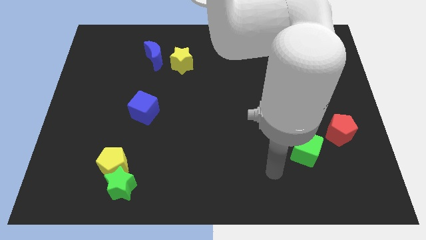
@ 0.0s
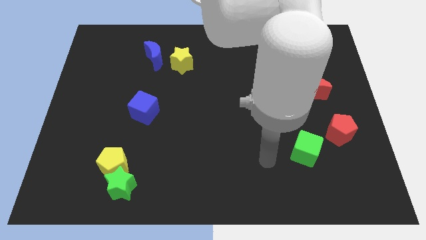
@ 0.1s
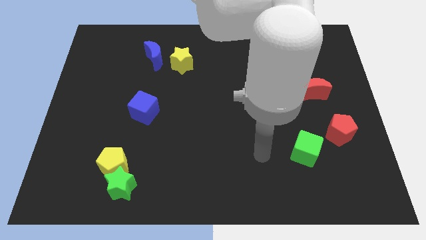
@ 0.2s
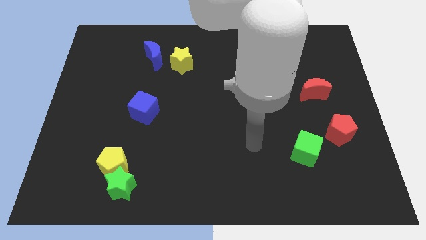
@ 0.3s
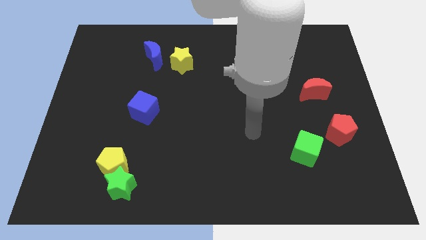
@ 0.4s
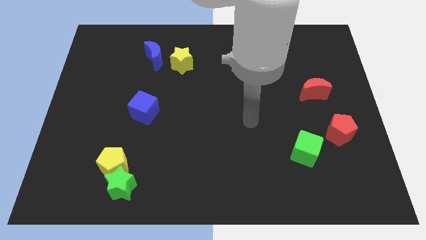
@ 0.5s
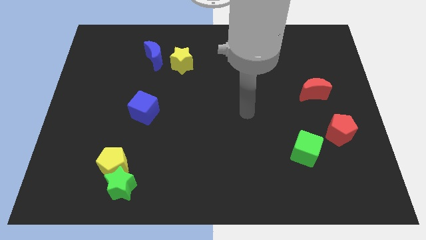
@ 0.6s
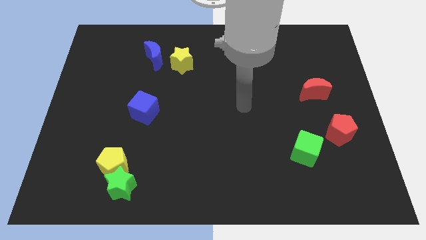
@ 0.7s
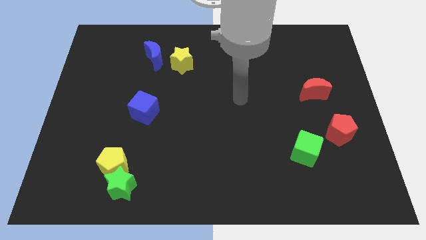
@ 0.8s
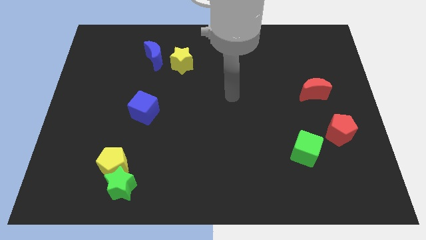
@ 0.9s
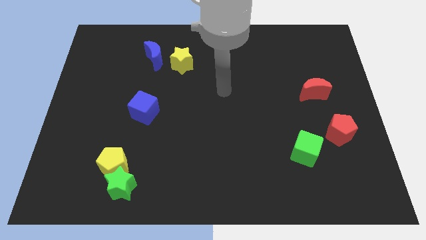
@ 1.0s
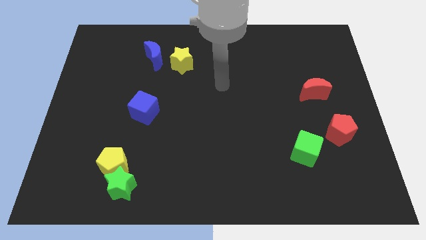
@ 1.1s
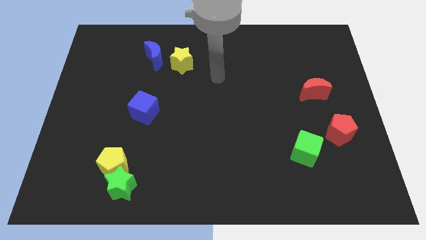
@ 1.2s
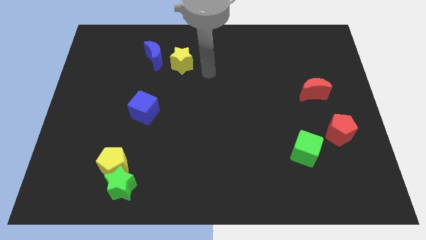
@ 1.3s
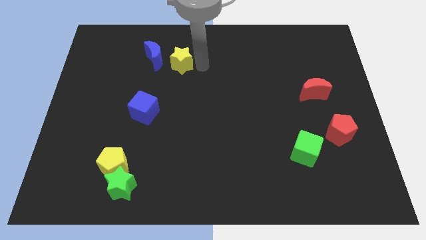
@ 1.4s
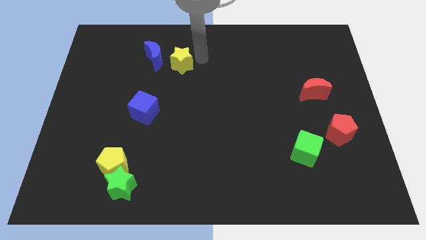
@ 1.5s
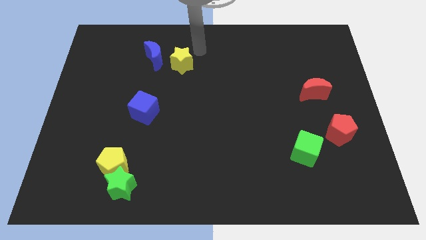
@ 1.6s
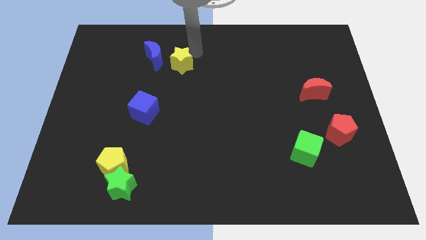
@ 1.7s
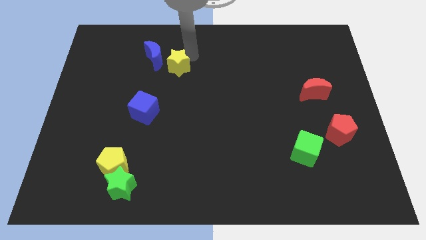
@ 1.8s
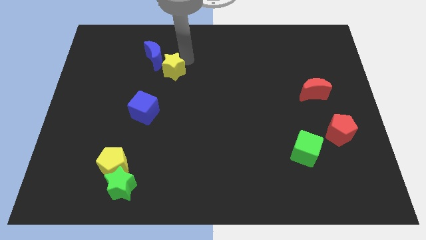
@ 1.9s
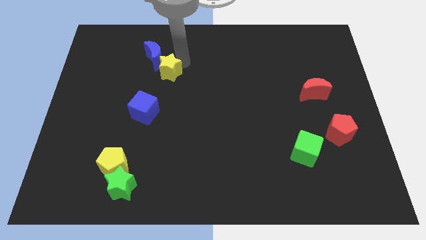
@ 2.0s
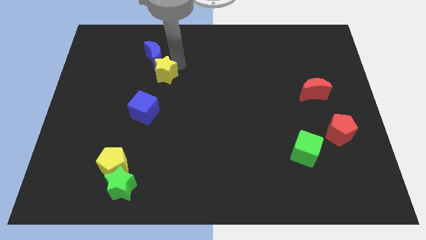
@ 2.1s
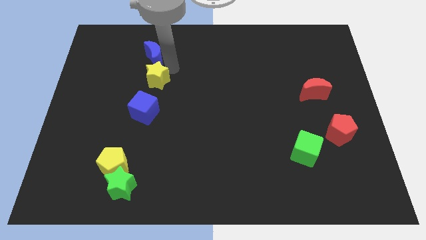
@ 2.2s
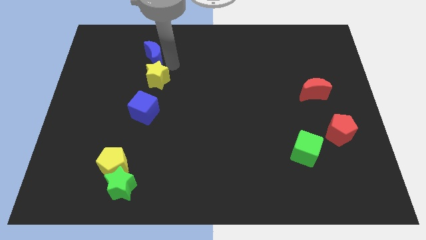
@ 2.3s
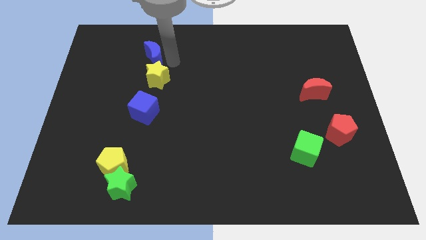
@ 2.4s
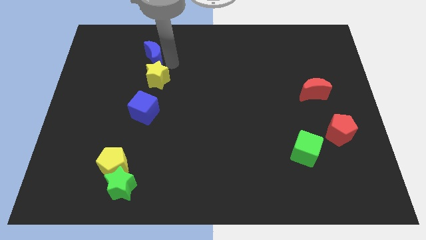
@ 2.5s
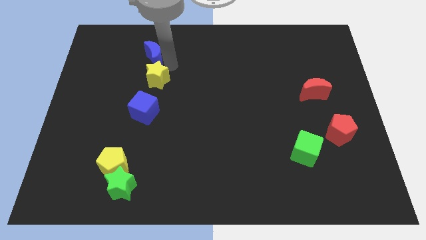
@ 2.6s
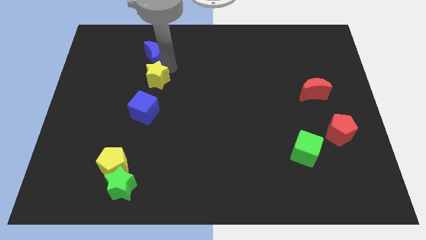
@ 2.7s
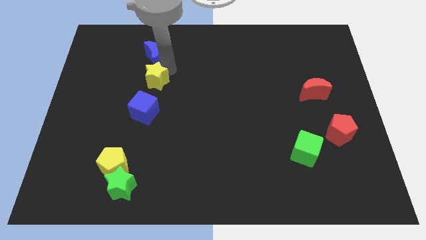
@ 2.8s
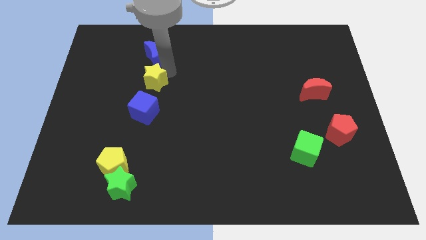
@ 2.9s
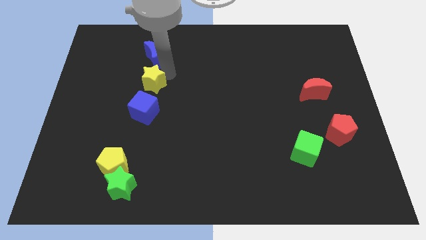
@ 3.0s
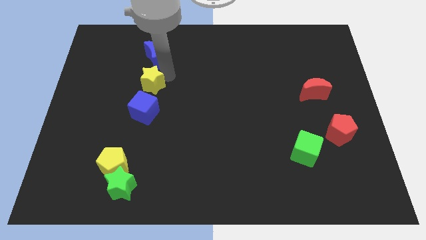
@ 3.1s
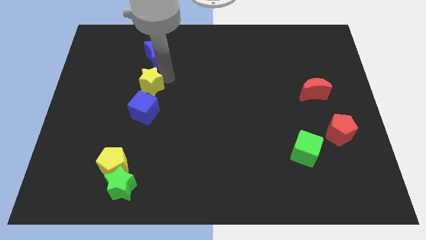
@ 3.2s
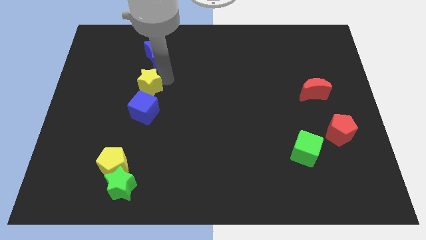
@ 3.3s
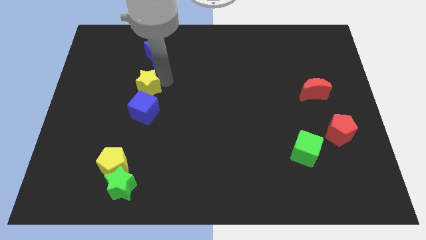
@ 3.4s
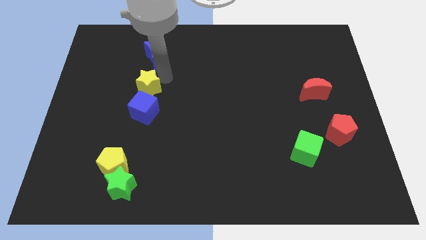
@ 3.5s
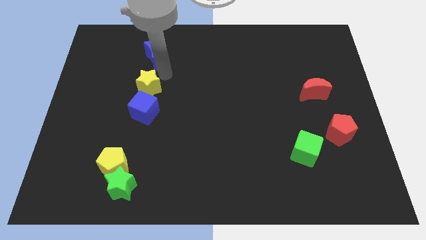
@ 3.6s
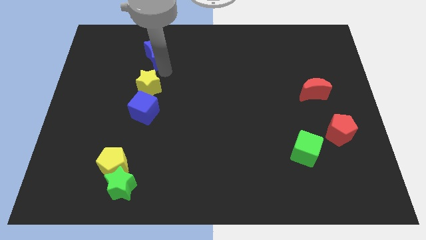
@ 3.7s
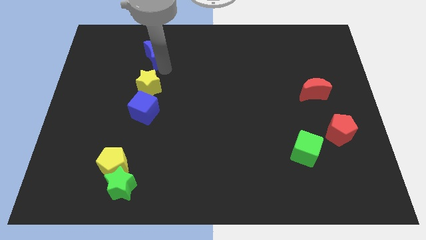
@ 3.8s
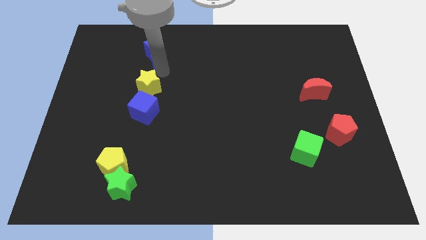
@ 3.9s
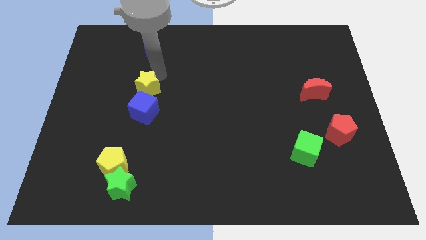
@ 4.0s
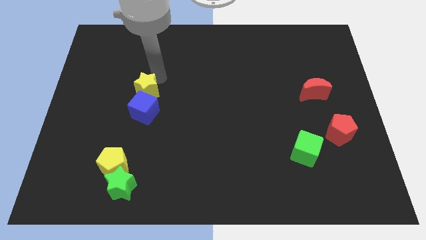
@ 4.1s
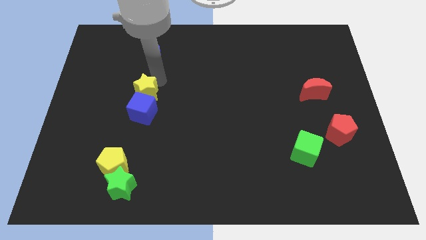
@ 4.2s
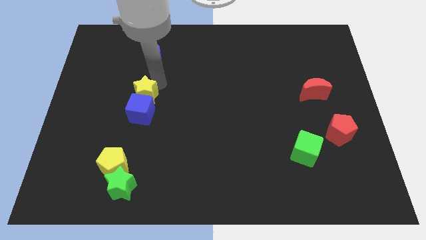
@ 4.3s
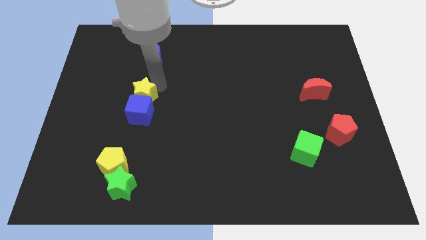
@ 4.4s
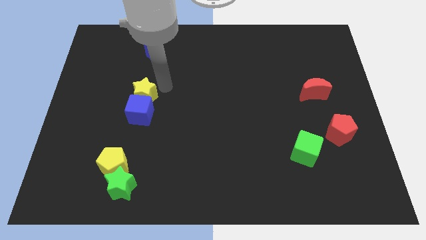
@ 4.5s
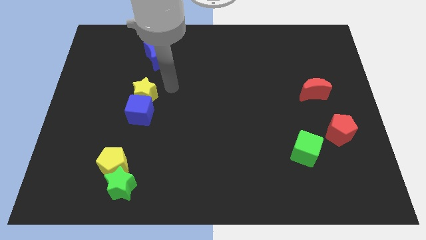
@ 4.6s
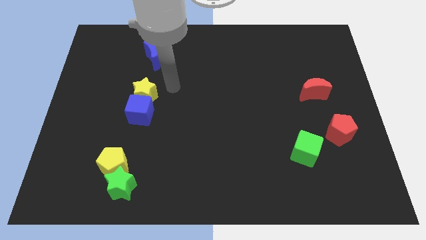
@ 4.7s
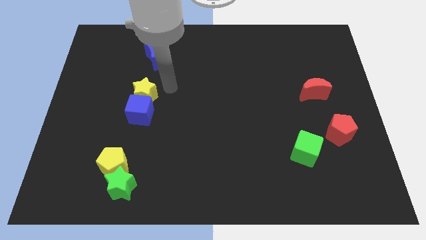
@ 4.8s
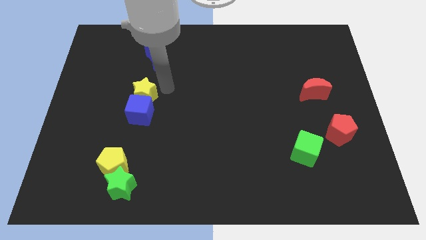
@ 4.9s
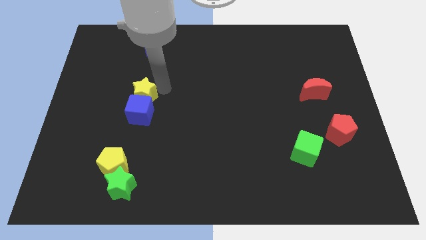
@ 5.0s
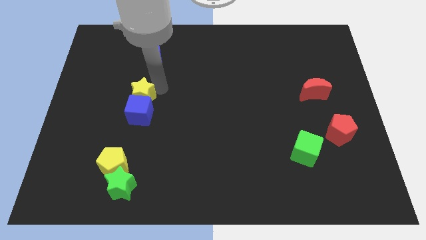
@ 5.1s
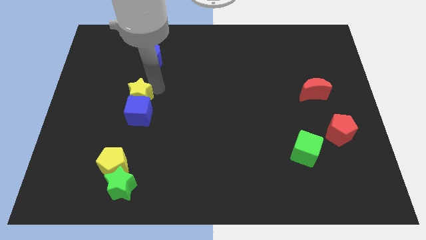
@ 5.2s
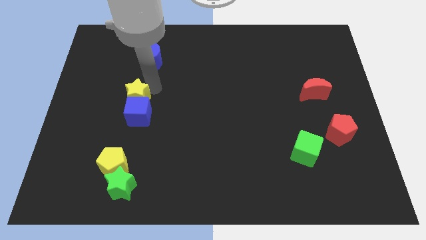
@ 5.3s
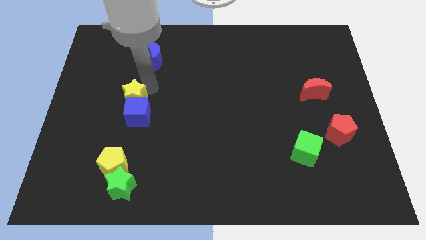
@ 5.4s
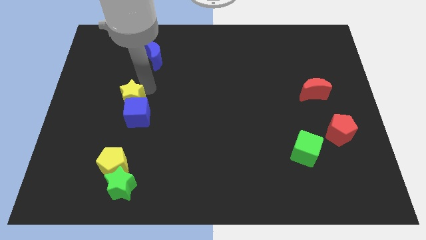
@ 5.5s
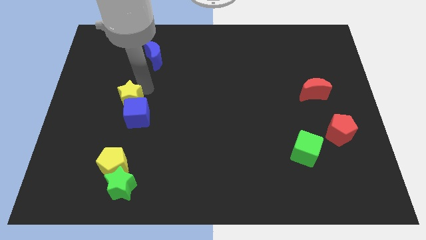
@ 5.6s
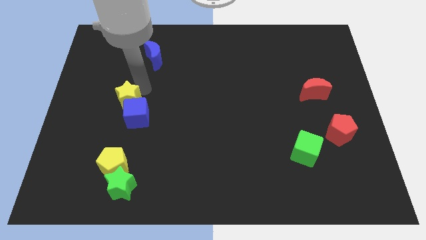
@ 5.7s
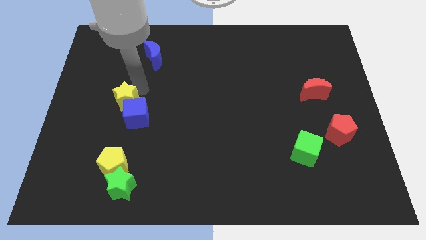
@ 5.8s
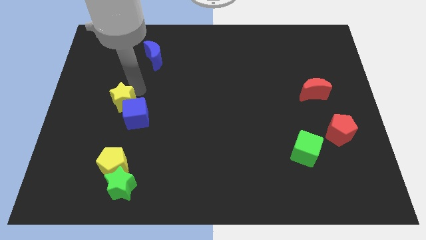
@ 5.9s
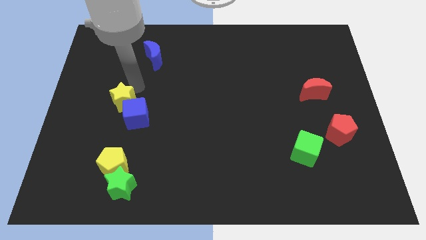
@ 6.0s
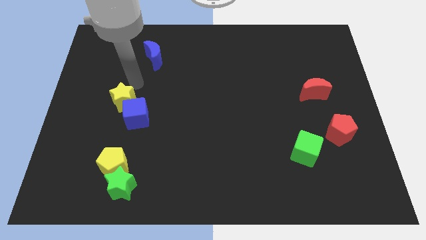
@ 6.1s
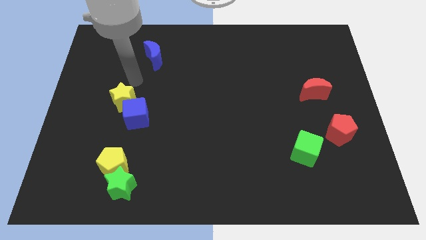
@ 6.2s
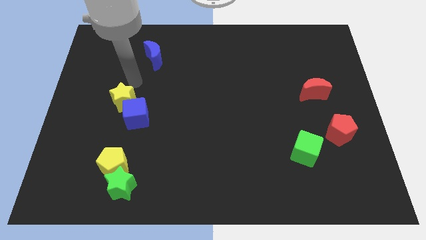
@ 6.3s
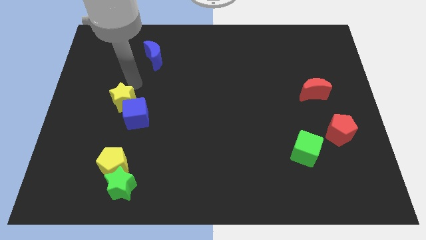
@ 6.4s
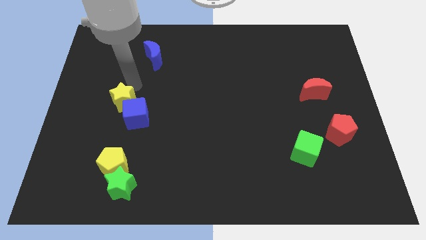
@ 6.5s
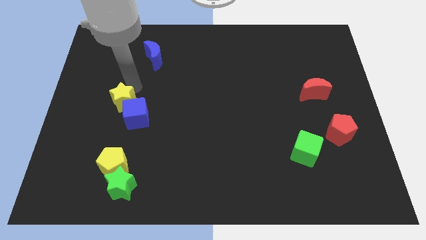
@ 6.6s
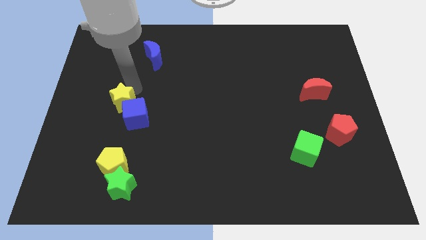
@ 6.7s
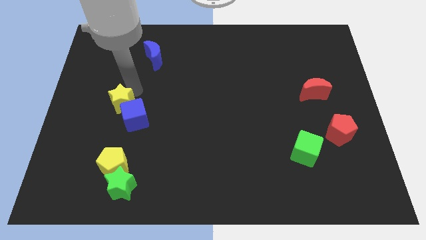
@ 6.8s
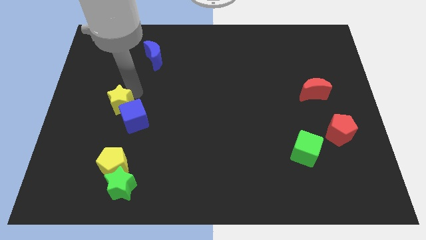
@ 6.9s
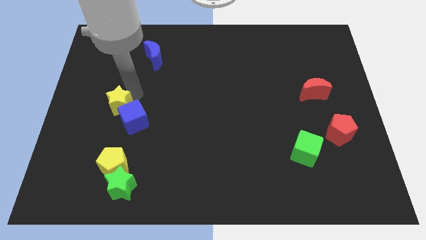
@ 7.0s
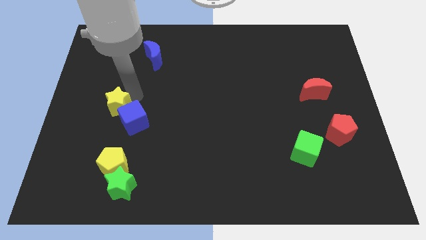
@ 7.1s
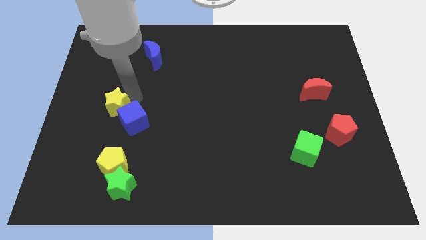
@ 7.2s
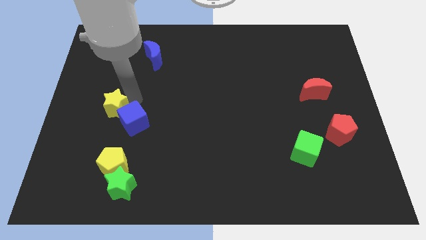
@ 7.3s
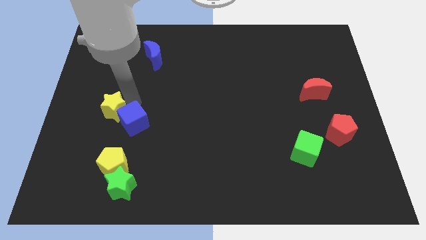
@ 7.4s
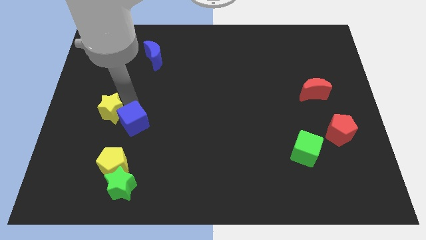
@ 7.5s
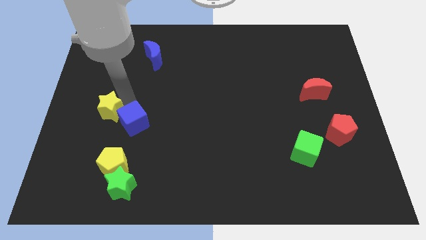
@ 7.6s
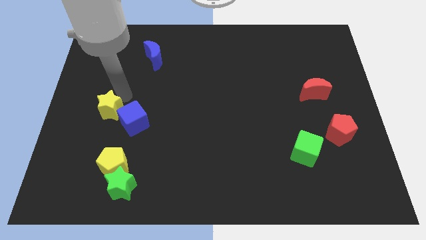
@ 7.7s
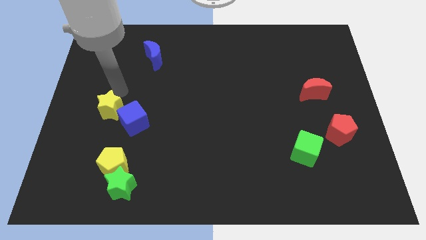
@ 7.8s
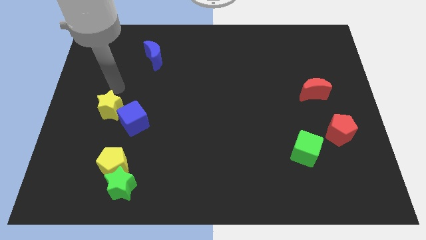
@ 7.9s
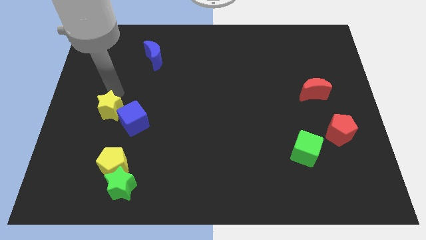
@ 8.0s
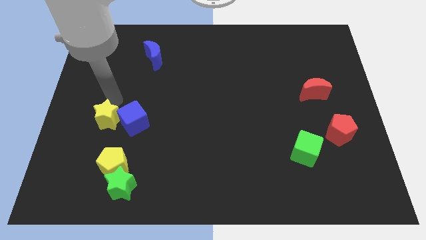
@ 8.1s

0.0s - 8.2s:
put the yellow star to the bottom left of the blue cube
